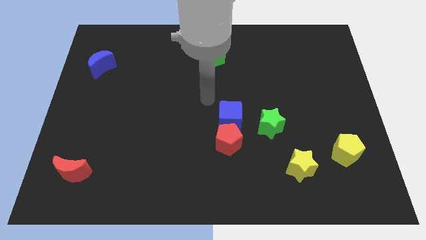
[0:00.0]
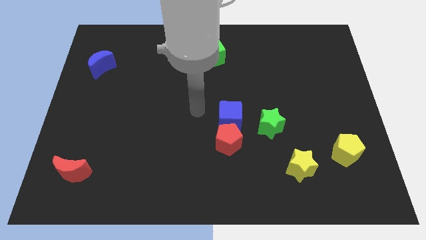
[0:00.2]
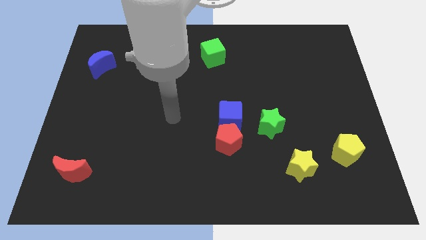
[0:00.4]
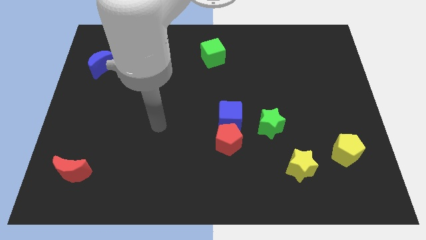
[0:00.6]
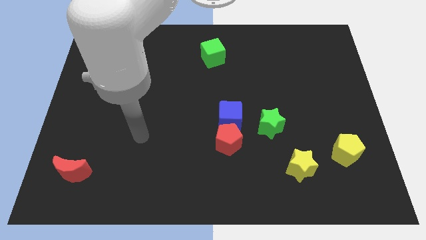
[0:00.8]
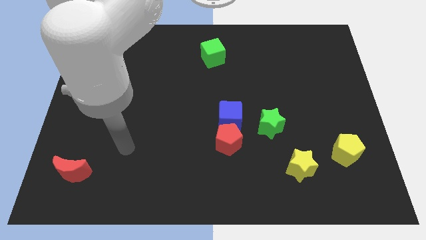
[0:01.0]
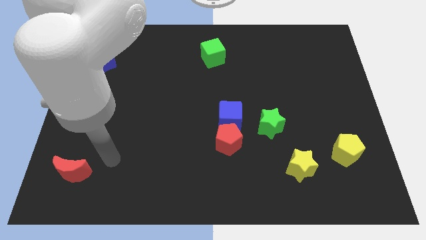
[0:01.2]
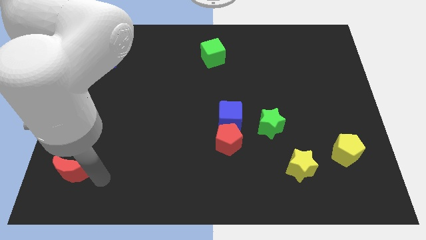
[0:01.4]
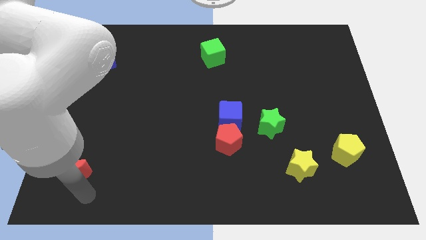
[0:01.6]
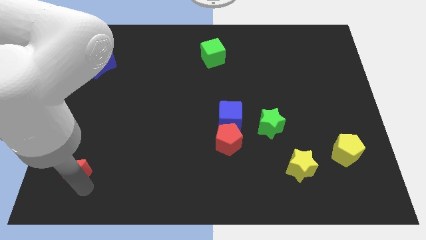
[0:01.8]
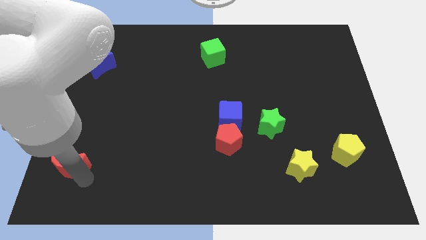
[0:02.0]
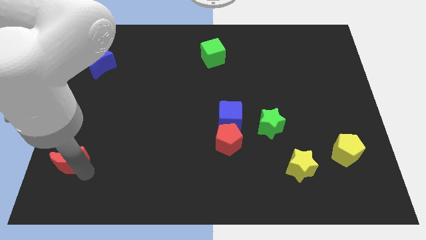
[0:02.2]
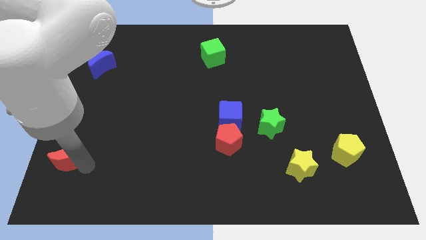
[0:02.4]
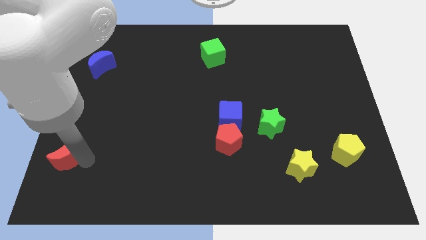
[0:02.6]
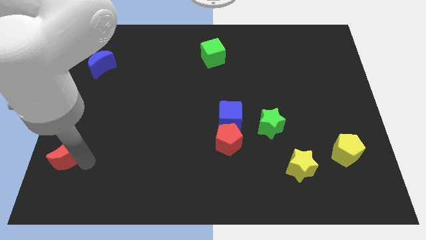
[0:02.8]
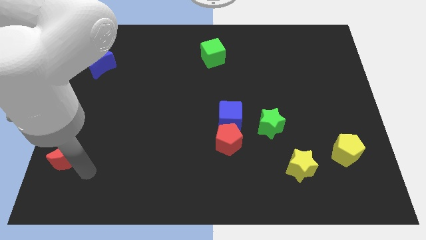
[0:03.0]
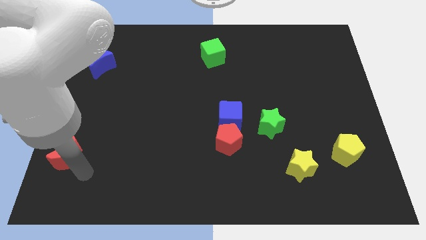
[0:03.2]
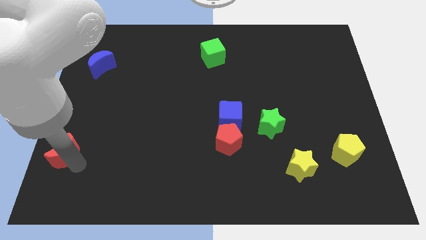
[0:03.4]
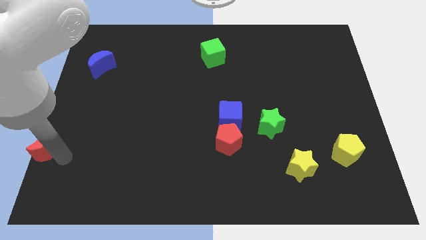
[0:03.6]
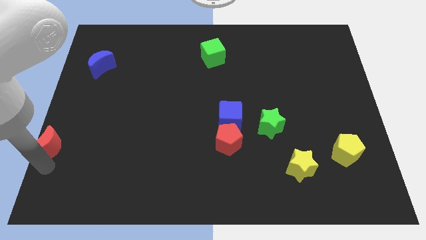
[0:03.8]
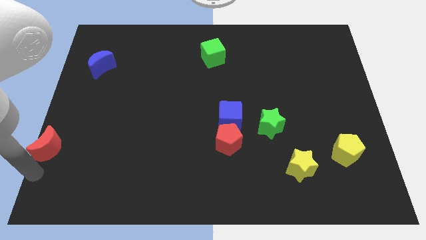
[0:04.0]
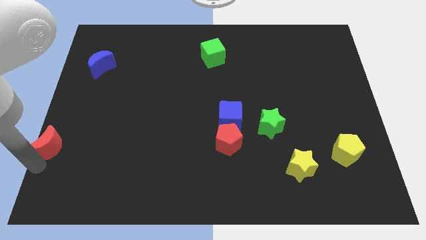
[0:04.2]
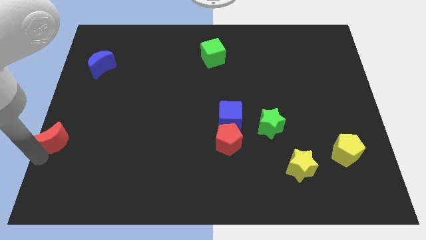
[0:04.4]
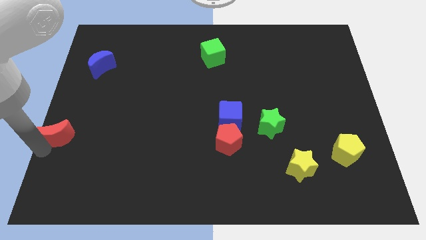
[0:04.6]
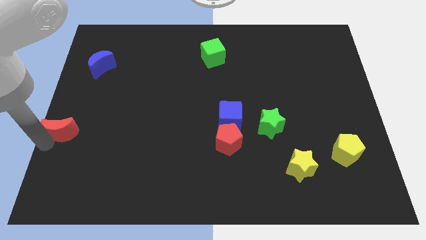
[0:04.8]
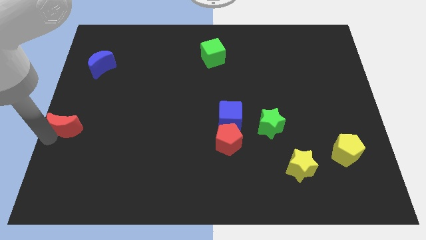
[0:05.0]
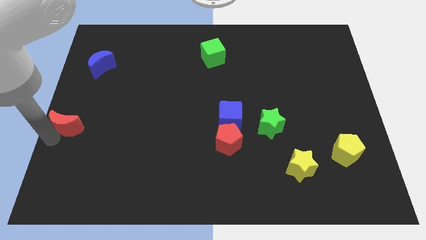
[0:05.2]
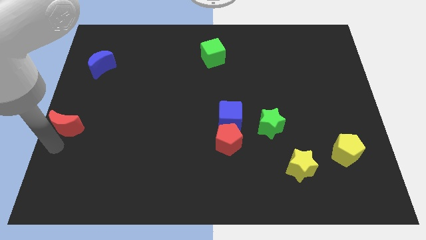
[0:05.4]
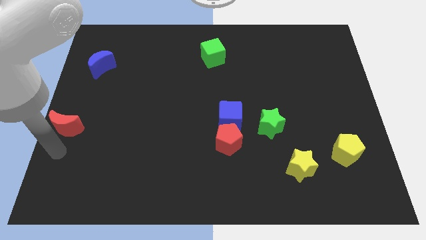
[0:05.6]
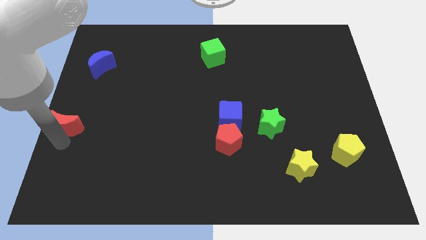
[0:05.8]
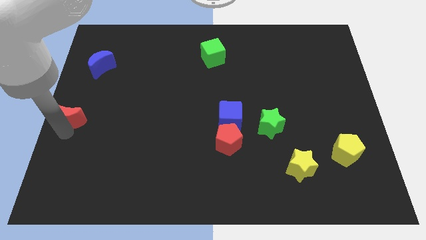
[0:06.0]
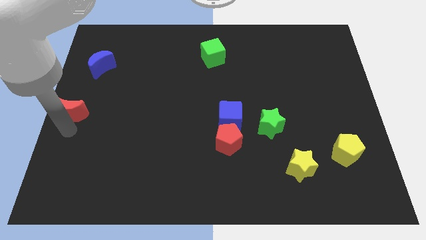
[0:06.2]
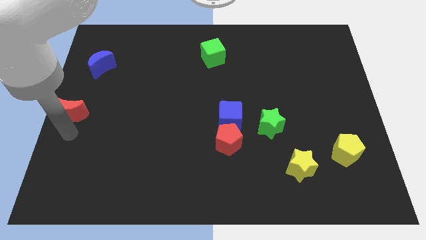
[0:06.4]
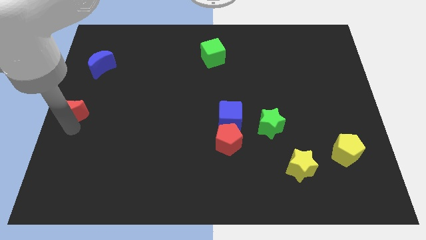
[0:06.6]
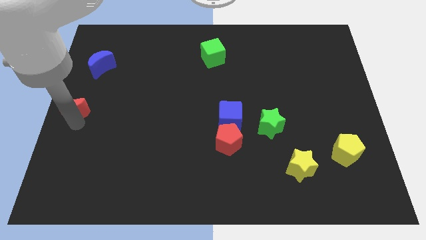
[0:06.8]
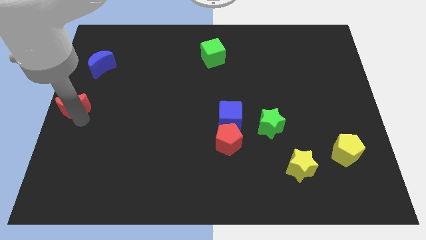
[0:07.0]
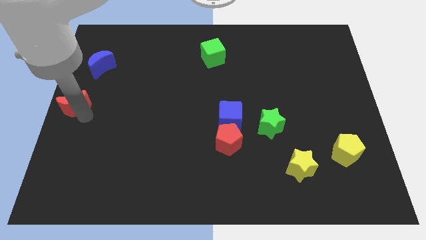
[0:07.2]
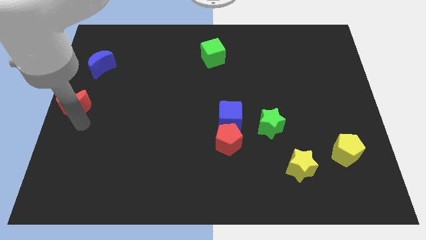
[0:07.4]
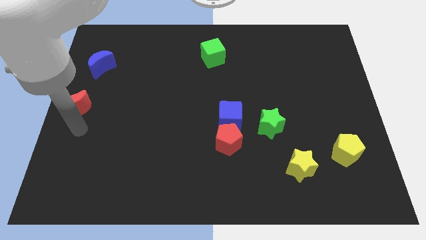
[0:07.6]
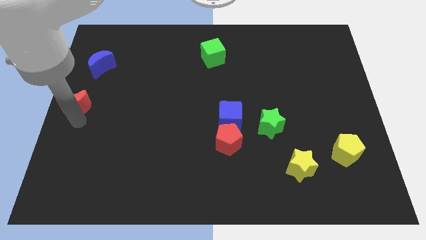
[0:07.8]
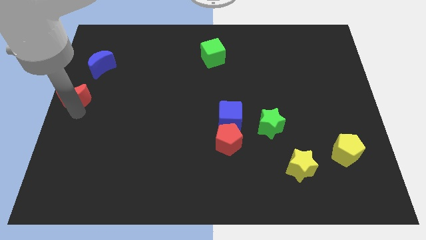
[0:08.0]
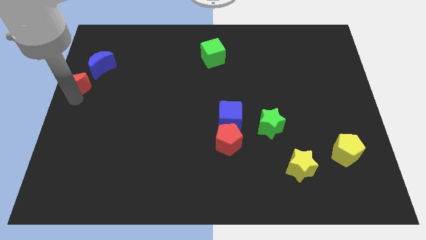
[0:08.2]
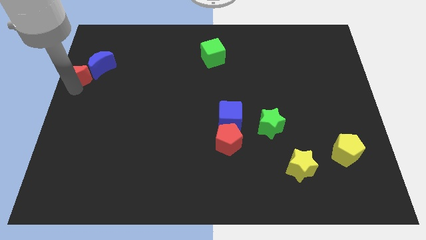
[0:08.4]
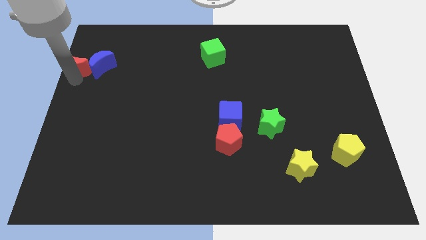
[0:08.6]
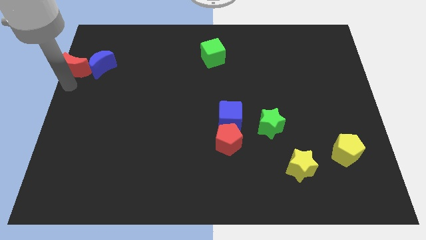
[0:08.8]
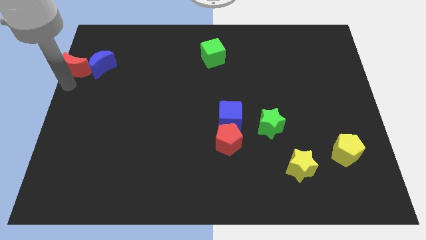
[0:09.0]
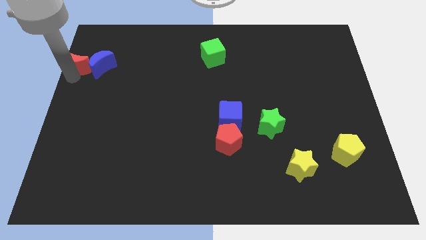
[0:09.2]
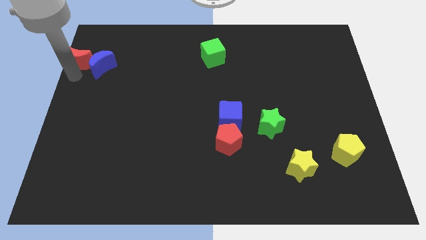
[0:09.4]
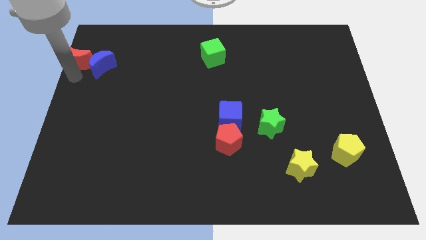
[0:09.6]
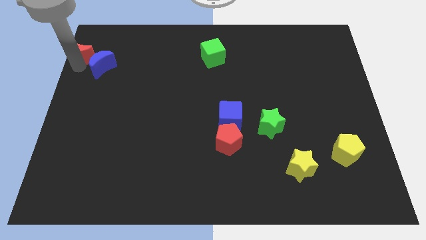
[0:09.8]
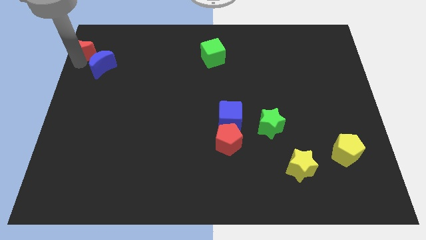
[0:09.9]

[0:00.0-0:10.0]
slide the red moon to the upper left corner

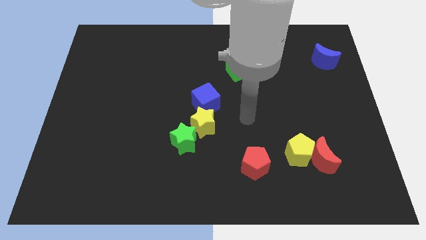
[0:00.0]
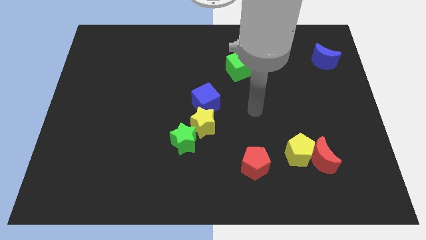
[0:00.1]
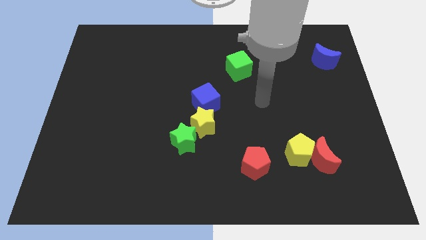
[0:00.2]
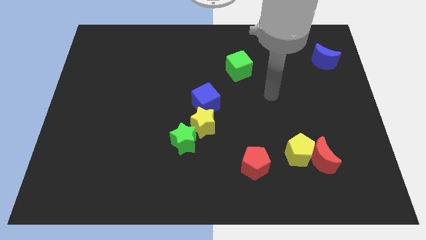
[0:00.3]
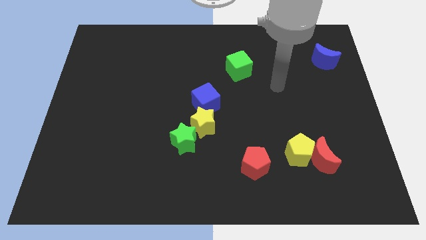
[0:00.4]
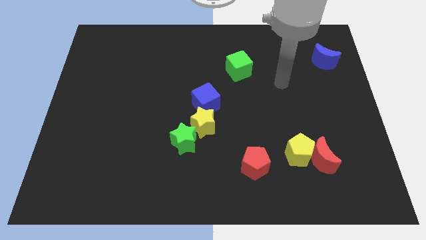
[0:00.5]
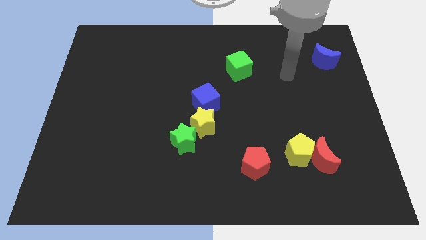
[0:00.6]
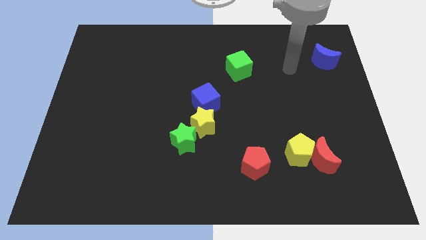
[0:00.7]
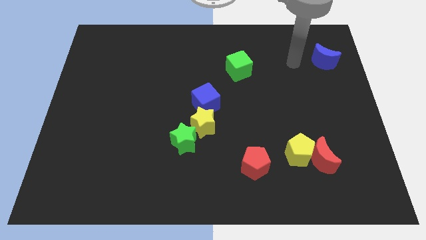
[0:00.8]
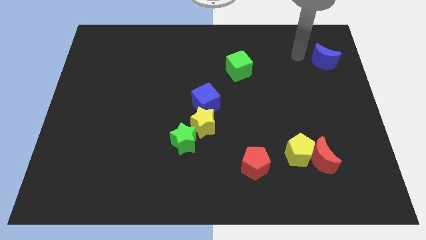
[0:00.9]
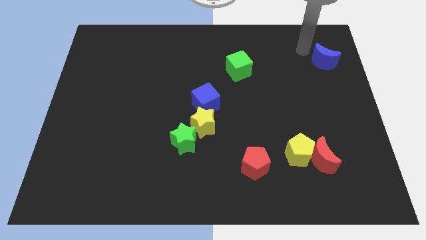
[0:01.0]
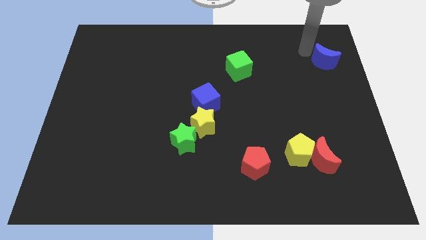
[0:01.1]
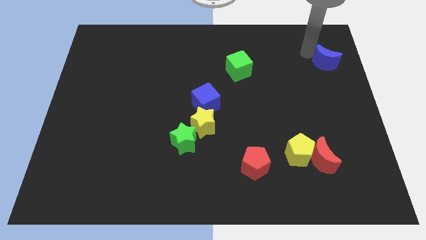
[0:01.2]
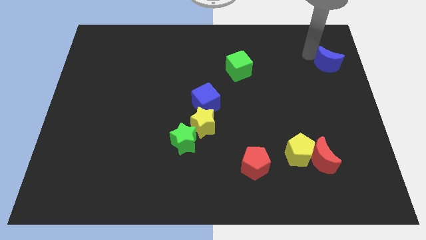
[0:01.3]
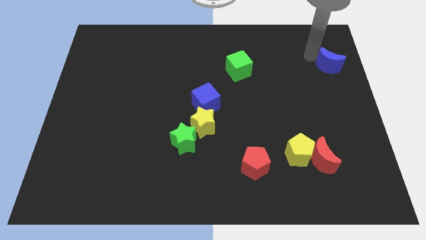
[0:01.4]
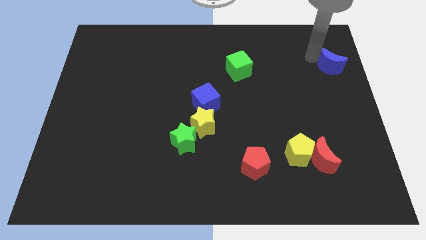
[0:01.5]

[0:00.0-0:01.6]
push the blue moon to the right side

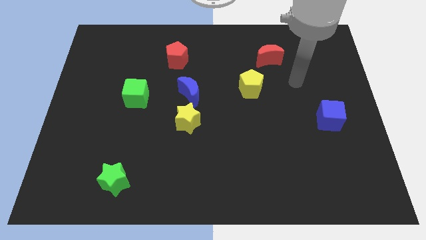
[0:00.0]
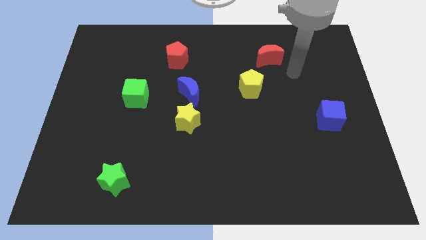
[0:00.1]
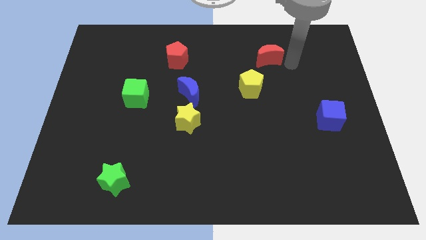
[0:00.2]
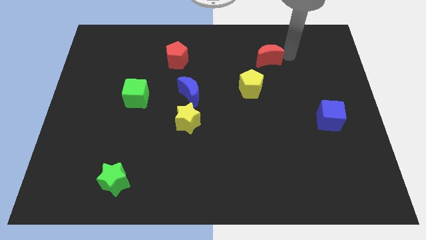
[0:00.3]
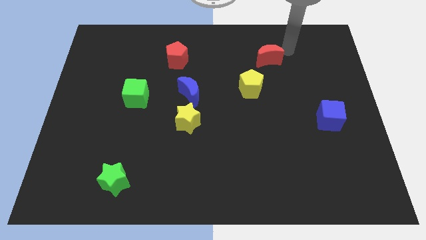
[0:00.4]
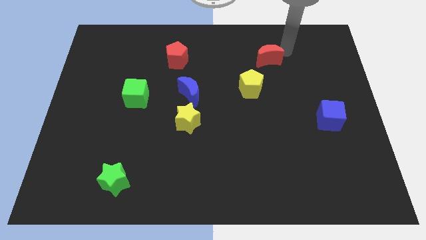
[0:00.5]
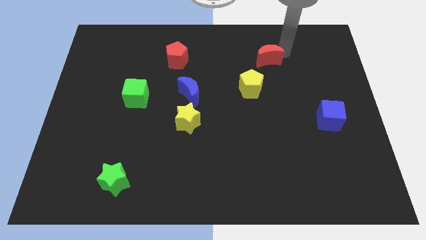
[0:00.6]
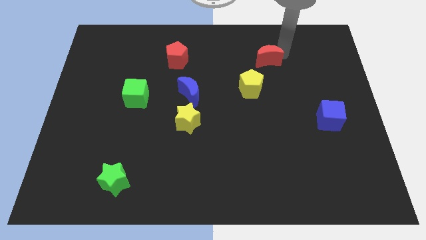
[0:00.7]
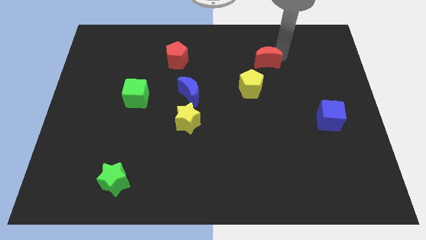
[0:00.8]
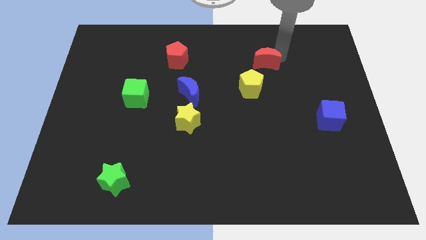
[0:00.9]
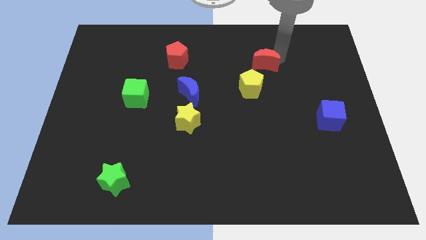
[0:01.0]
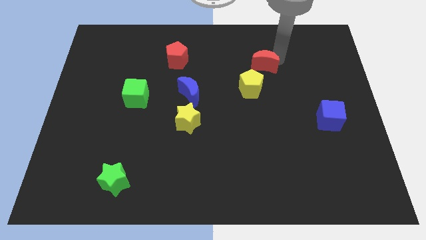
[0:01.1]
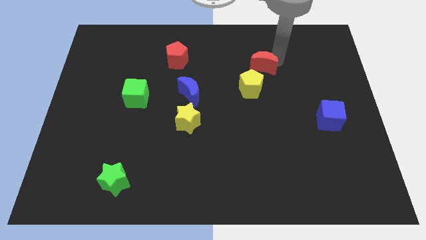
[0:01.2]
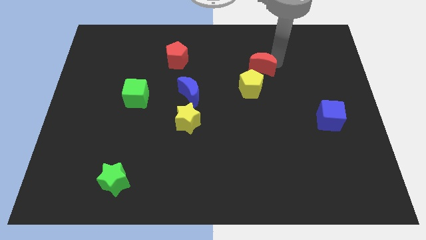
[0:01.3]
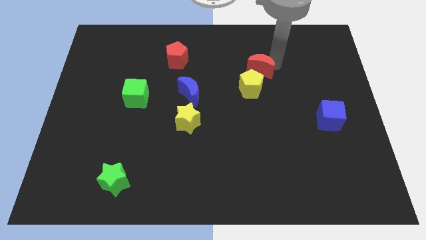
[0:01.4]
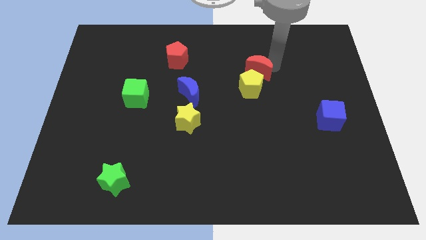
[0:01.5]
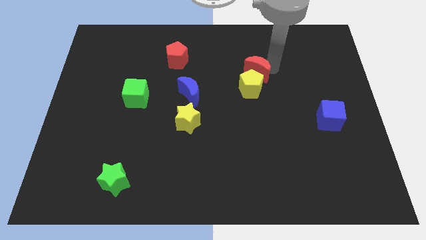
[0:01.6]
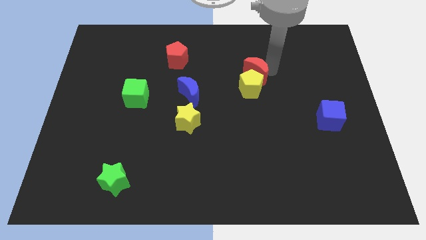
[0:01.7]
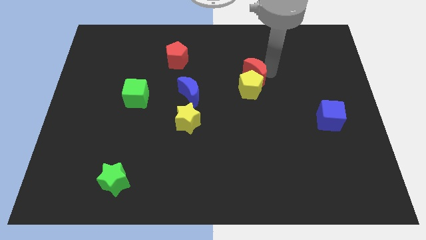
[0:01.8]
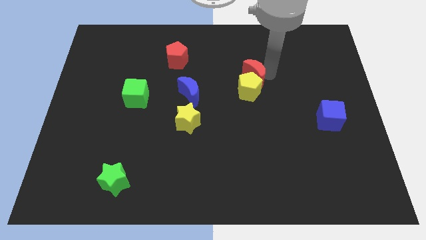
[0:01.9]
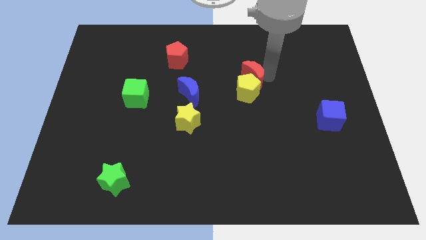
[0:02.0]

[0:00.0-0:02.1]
move the red moon to the center of the board
